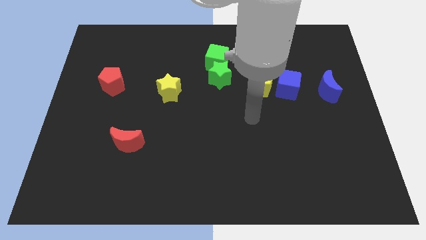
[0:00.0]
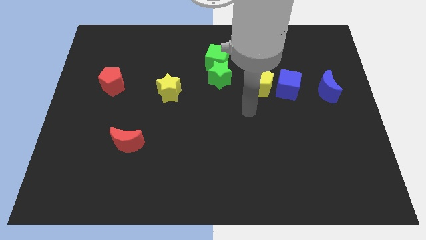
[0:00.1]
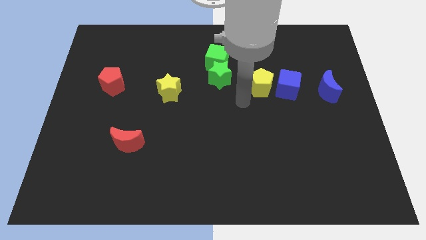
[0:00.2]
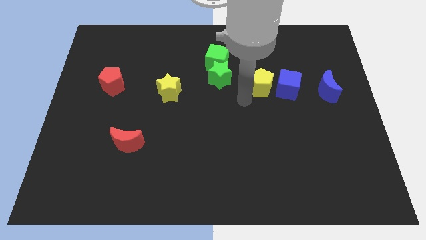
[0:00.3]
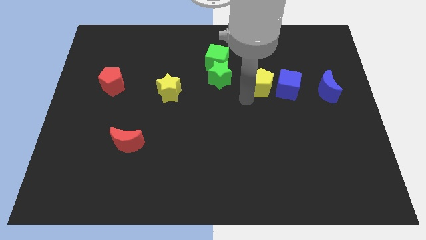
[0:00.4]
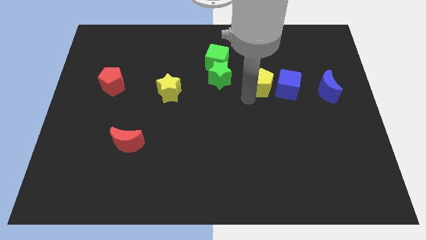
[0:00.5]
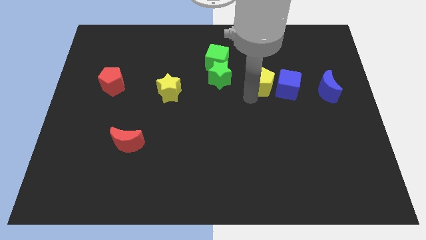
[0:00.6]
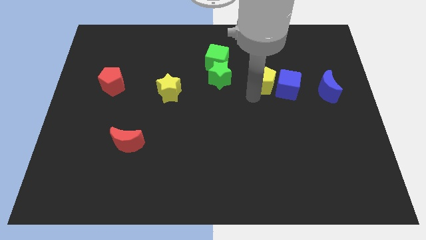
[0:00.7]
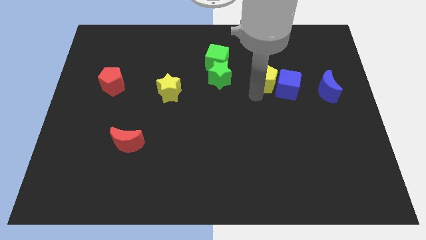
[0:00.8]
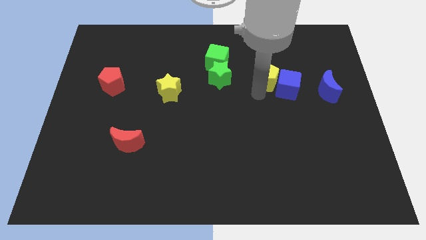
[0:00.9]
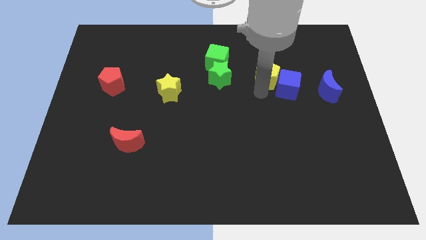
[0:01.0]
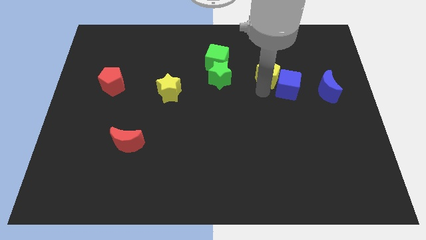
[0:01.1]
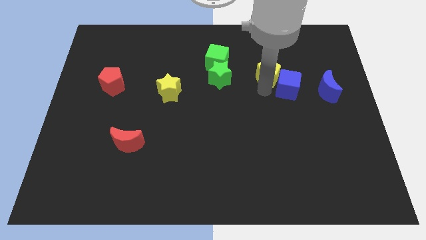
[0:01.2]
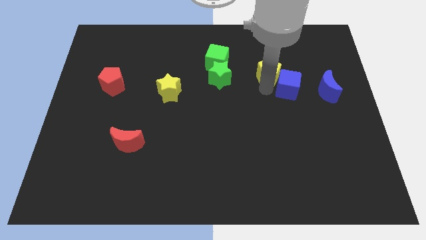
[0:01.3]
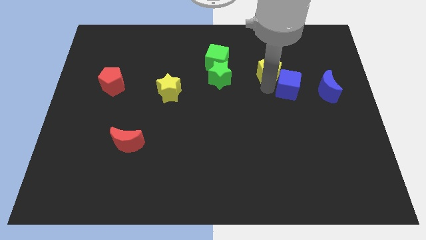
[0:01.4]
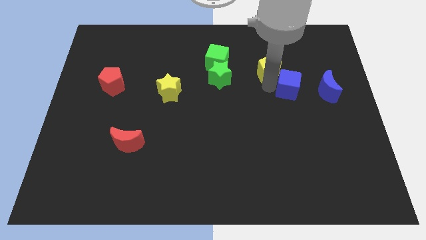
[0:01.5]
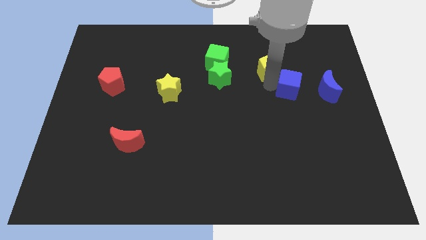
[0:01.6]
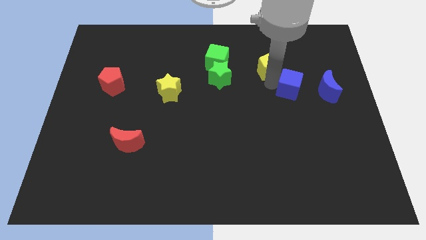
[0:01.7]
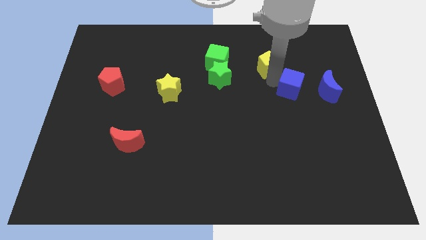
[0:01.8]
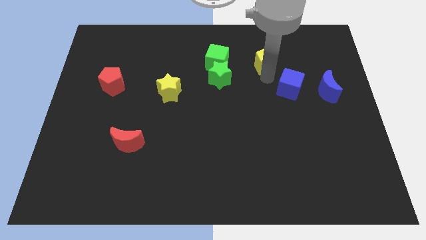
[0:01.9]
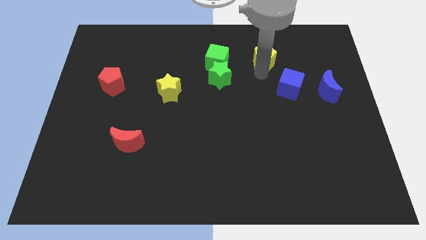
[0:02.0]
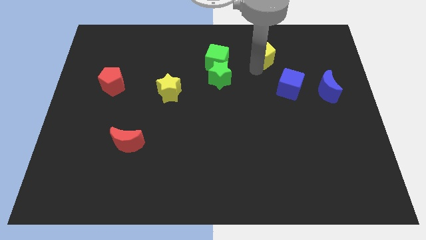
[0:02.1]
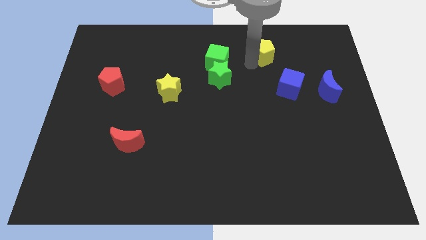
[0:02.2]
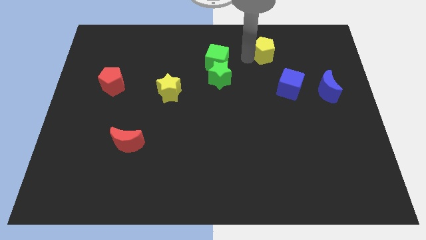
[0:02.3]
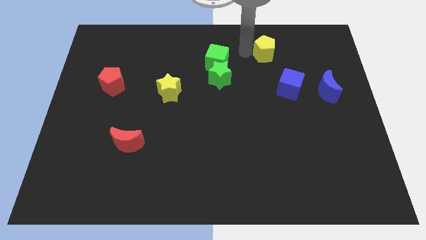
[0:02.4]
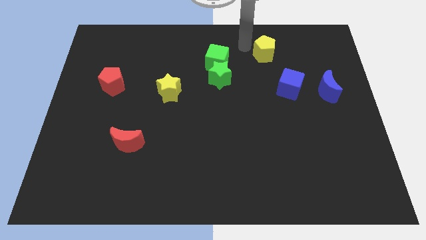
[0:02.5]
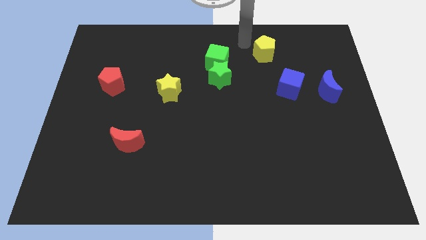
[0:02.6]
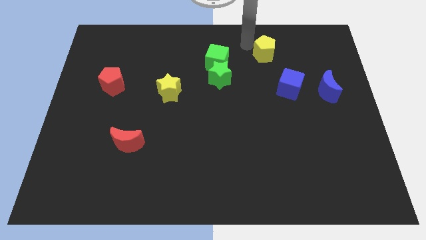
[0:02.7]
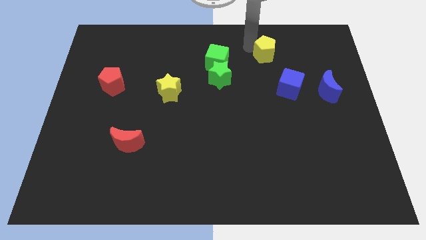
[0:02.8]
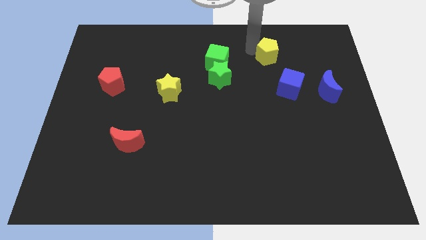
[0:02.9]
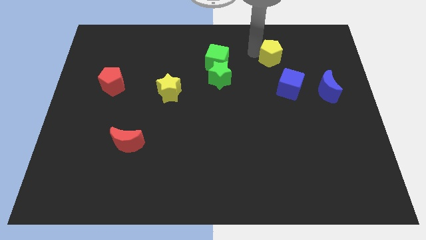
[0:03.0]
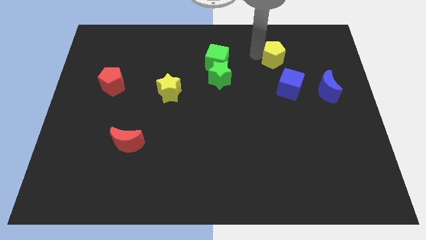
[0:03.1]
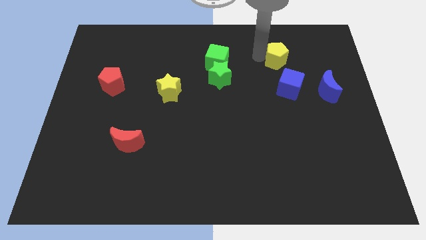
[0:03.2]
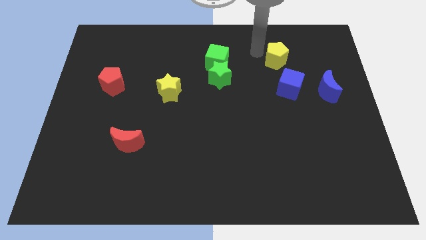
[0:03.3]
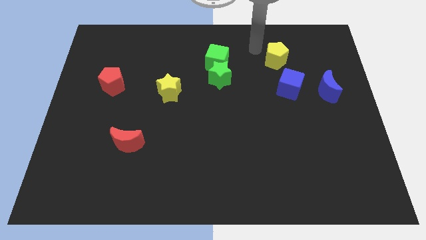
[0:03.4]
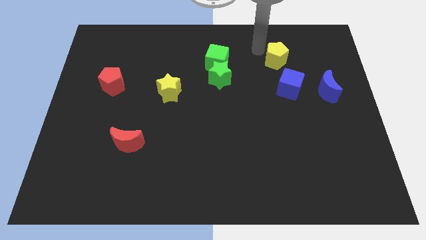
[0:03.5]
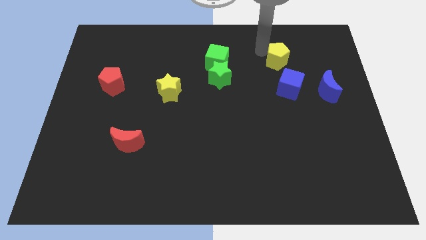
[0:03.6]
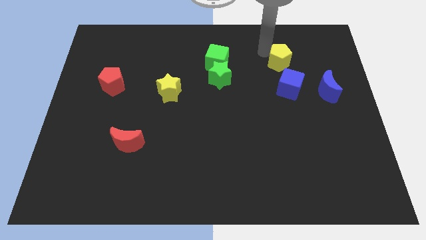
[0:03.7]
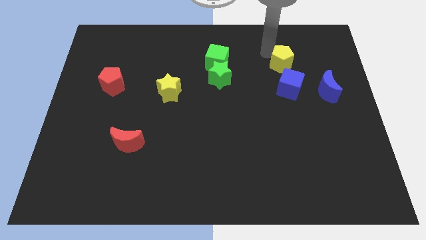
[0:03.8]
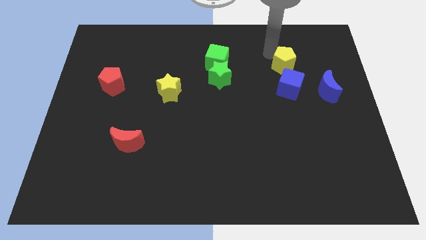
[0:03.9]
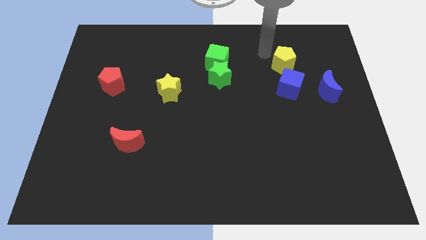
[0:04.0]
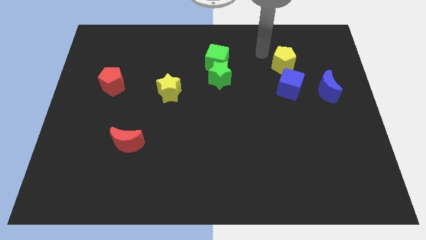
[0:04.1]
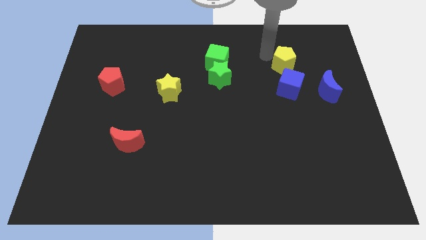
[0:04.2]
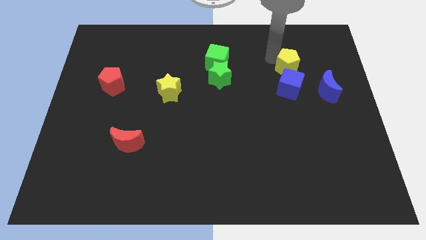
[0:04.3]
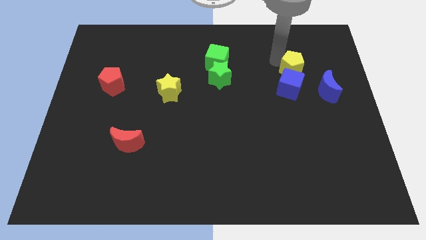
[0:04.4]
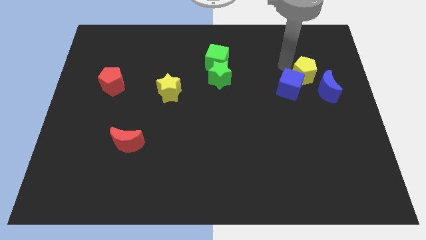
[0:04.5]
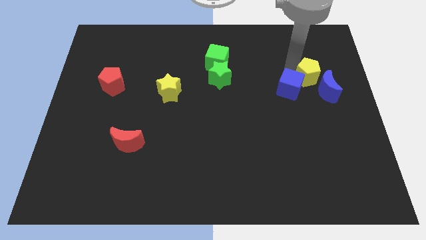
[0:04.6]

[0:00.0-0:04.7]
slide the yellow pentagon towards the blue moon

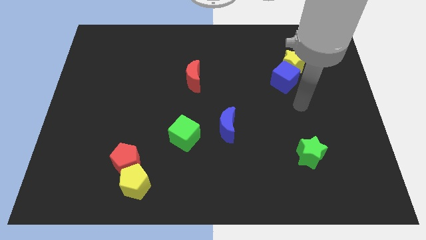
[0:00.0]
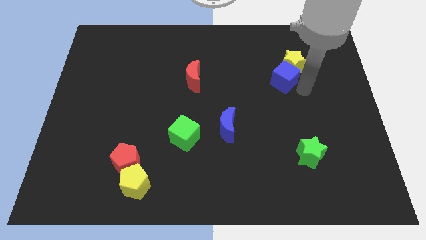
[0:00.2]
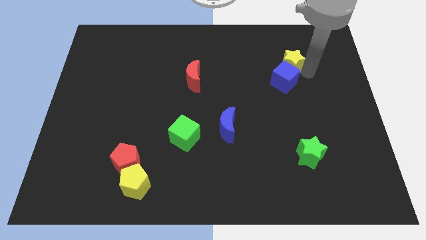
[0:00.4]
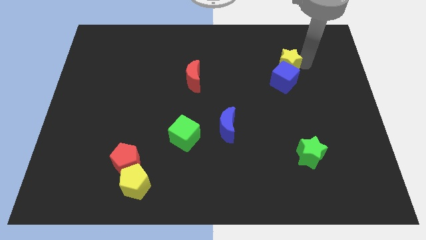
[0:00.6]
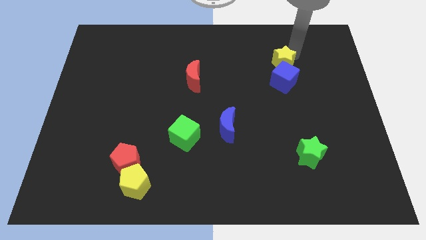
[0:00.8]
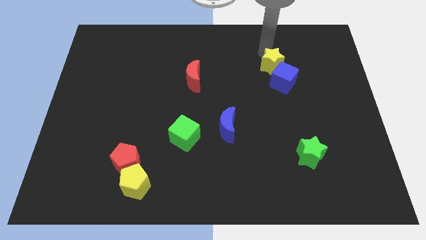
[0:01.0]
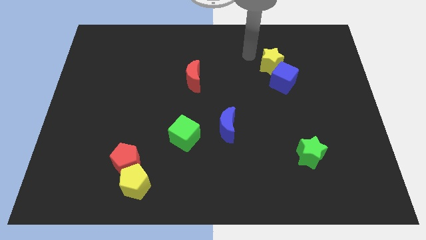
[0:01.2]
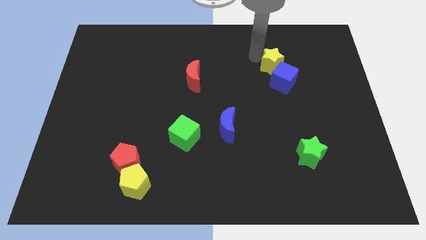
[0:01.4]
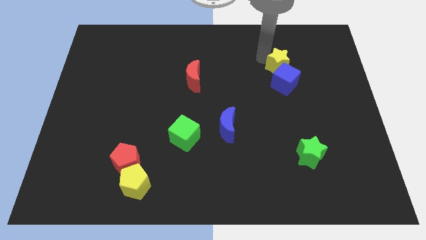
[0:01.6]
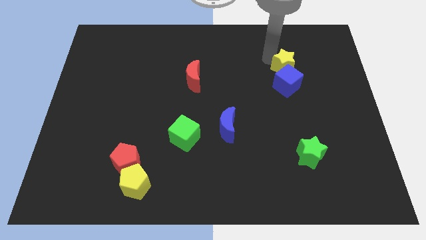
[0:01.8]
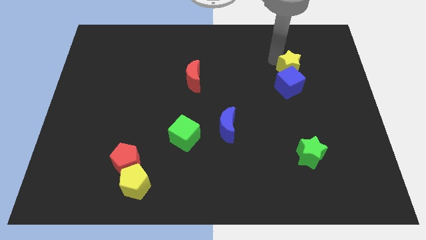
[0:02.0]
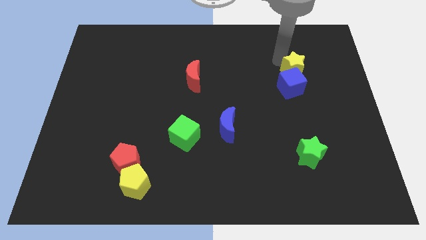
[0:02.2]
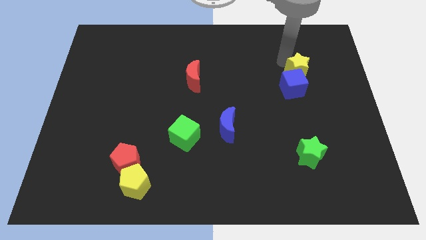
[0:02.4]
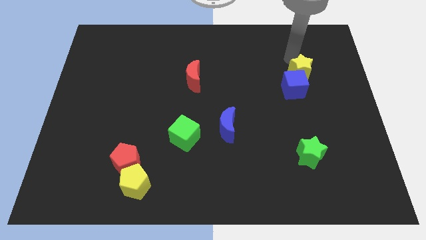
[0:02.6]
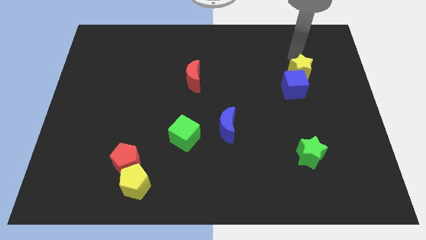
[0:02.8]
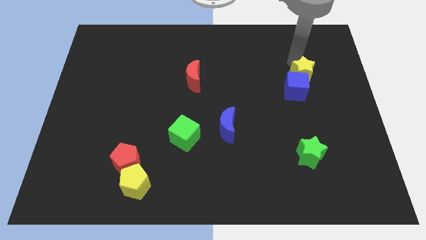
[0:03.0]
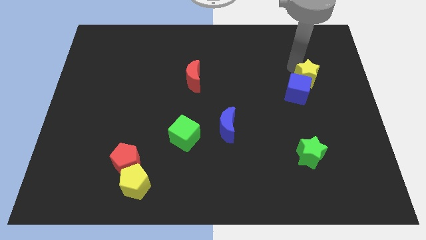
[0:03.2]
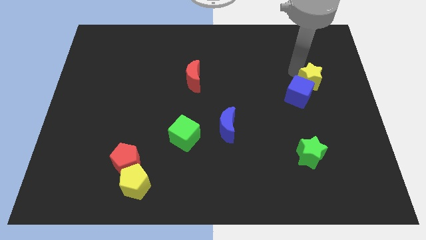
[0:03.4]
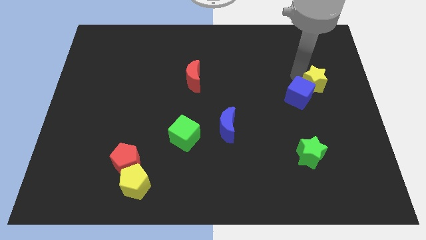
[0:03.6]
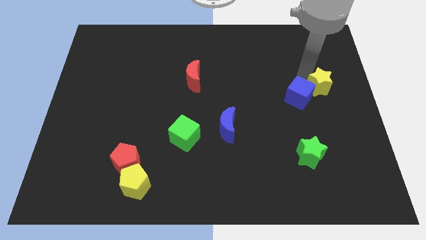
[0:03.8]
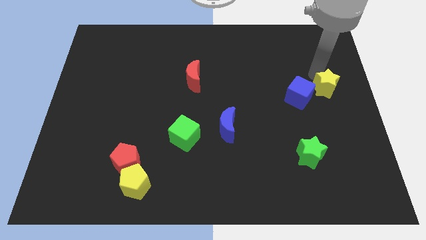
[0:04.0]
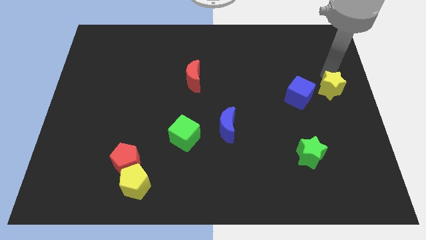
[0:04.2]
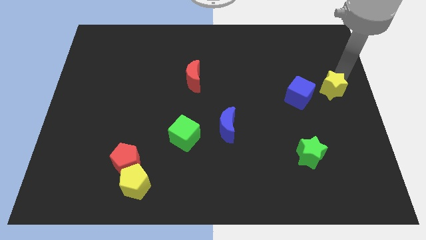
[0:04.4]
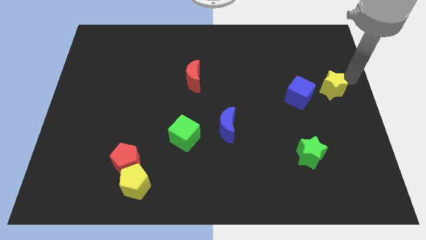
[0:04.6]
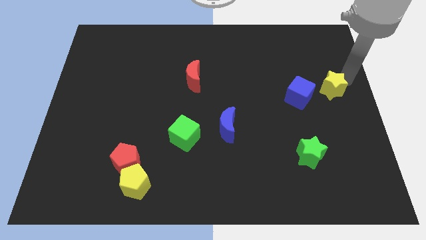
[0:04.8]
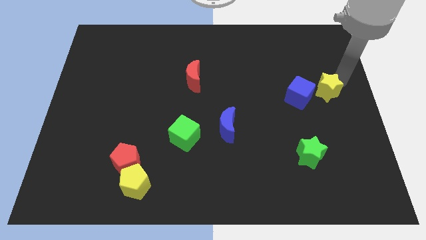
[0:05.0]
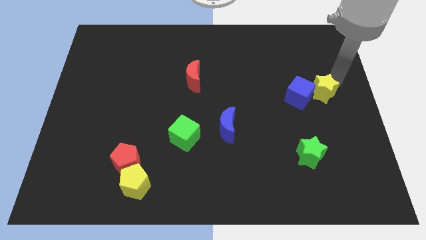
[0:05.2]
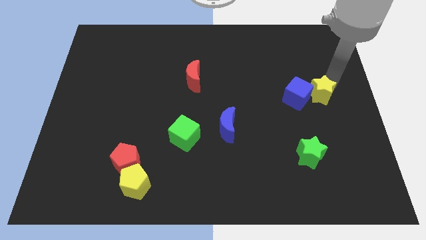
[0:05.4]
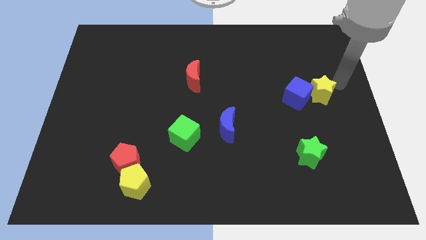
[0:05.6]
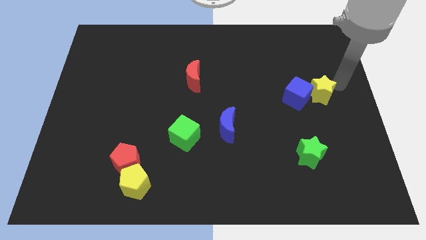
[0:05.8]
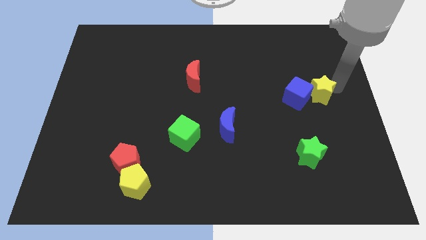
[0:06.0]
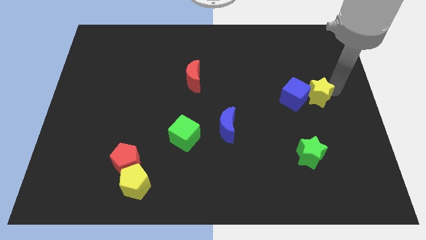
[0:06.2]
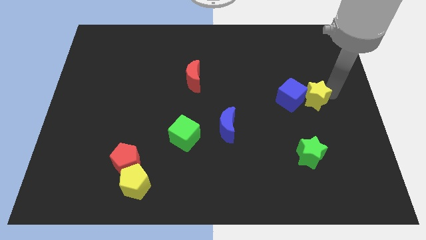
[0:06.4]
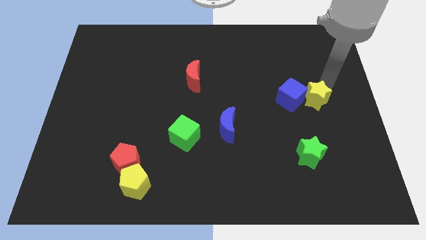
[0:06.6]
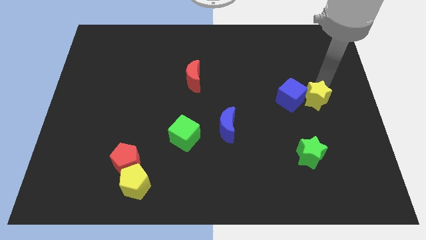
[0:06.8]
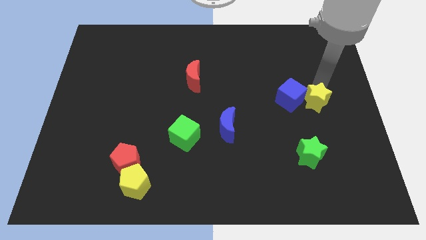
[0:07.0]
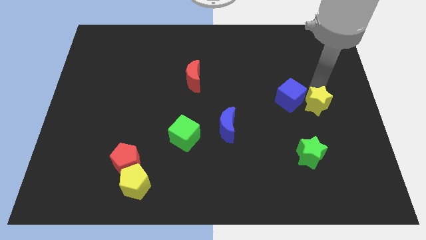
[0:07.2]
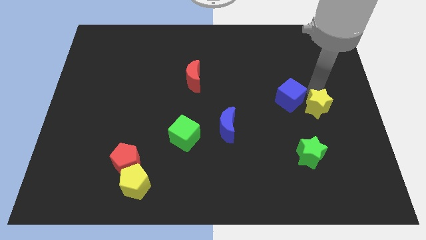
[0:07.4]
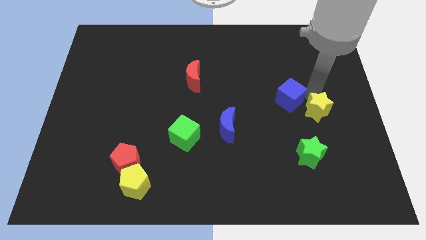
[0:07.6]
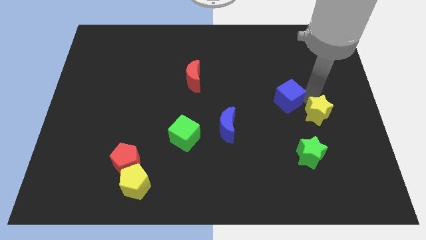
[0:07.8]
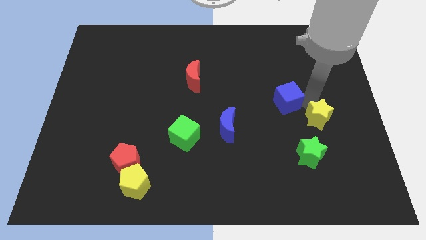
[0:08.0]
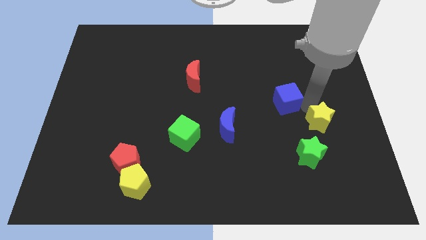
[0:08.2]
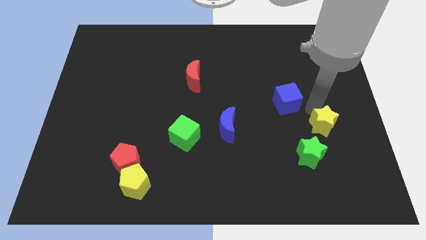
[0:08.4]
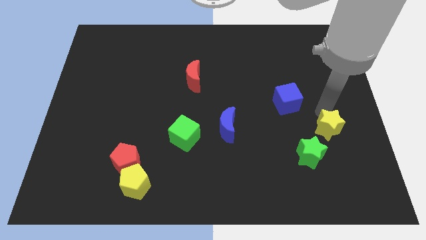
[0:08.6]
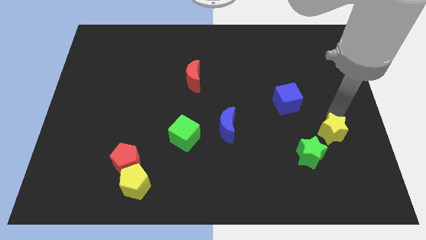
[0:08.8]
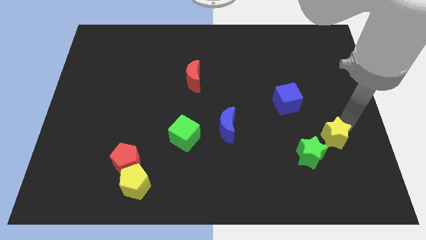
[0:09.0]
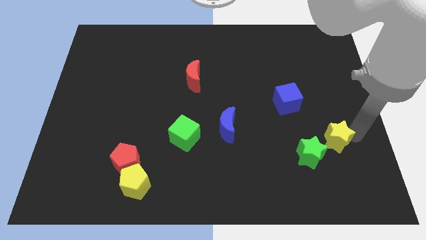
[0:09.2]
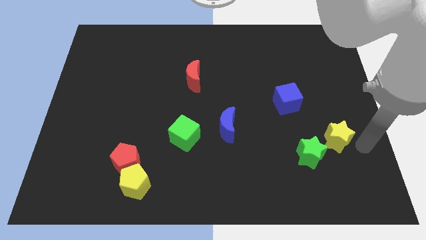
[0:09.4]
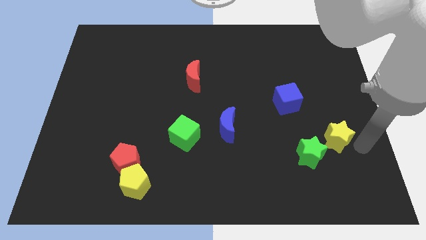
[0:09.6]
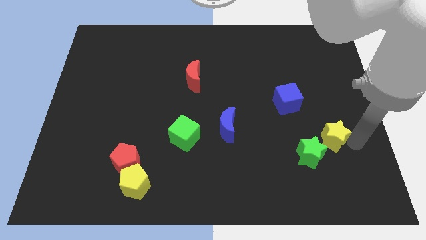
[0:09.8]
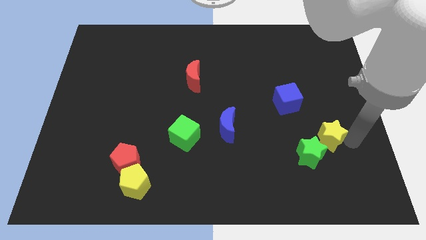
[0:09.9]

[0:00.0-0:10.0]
slide the yellow star to the green star
